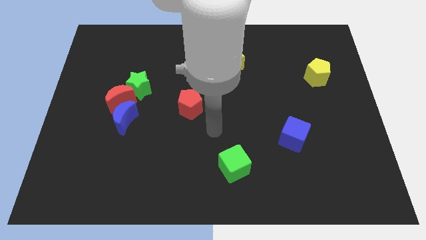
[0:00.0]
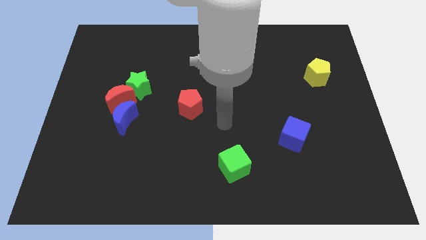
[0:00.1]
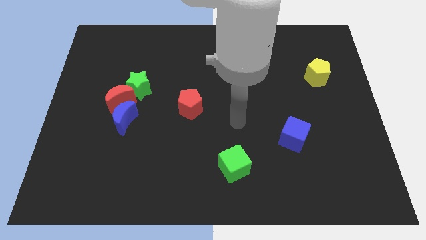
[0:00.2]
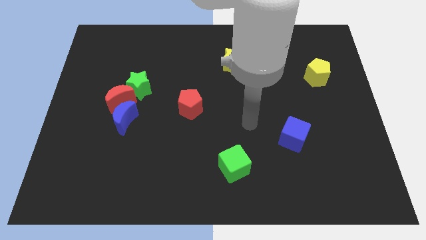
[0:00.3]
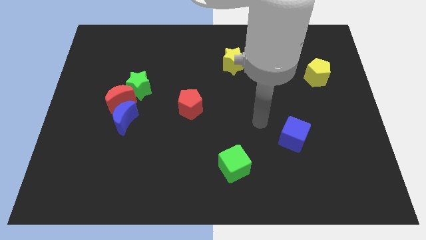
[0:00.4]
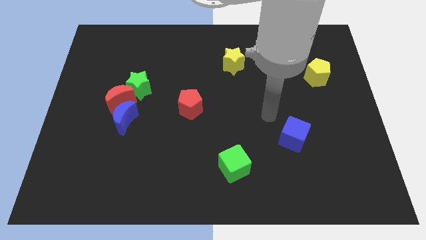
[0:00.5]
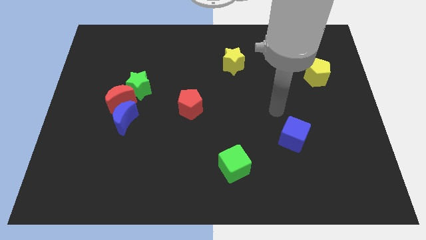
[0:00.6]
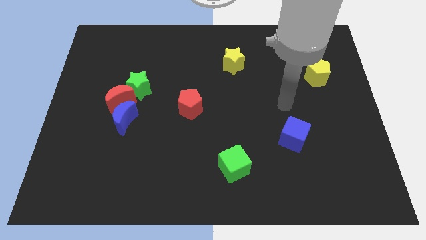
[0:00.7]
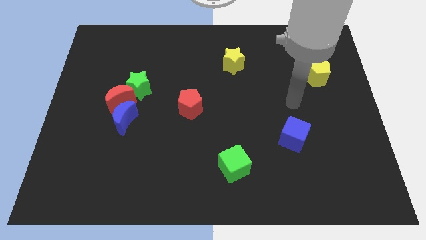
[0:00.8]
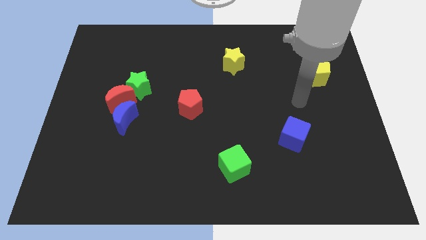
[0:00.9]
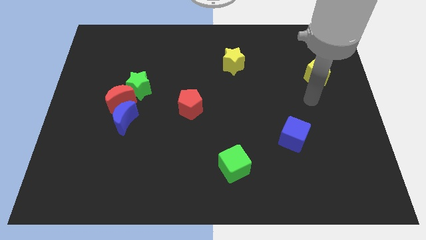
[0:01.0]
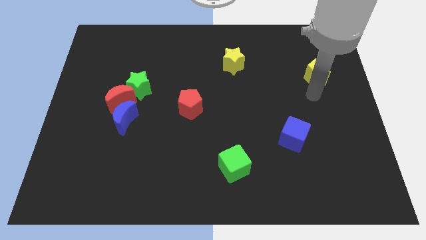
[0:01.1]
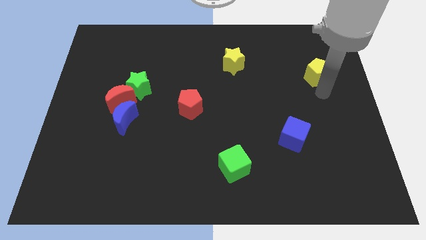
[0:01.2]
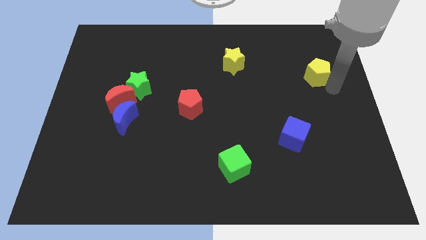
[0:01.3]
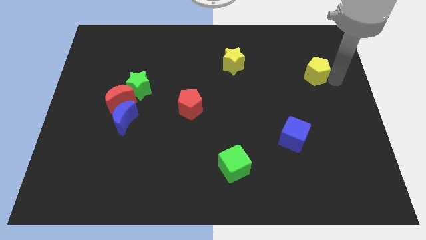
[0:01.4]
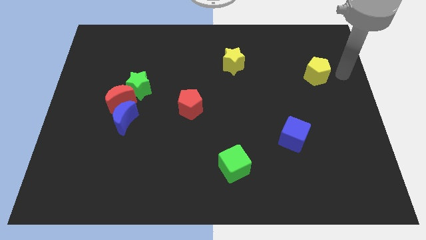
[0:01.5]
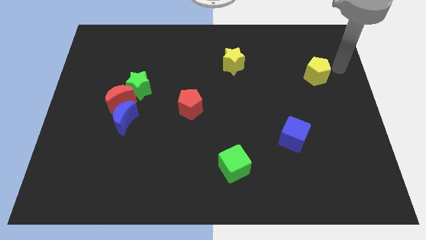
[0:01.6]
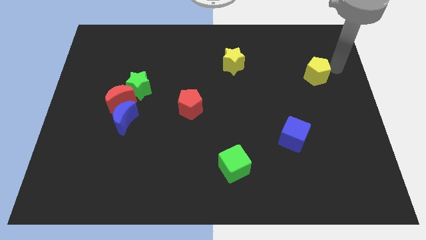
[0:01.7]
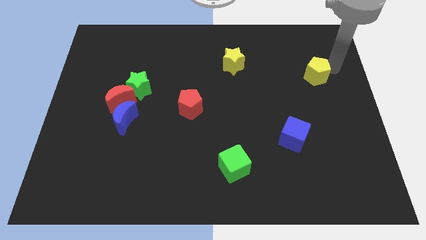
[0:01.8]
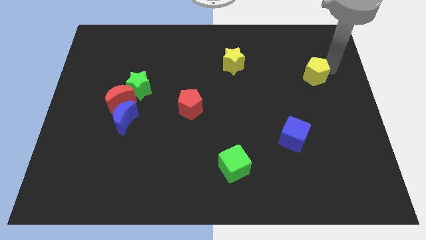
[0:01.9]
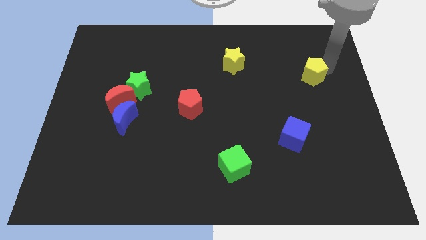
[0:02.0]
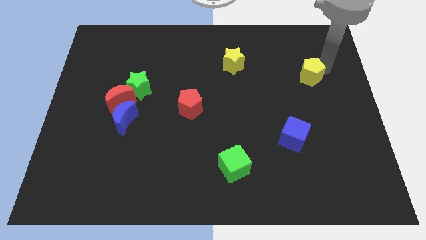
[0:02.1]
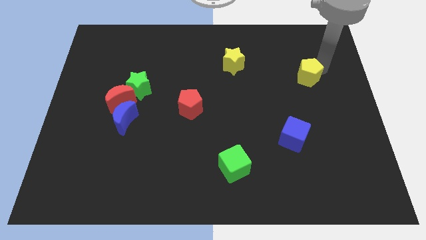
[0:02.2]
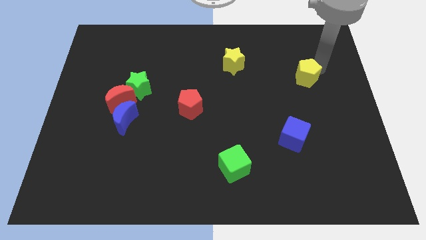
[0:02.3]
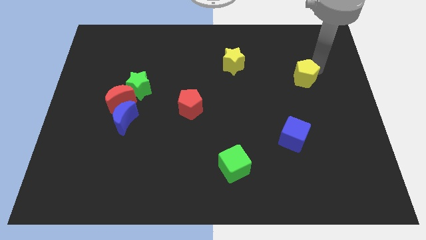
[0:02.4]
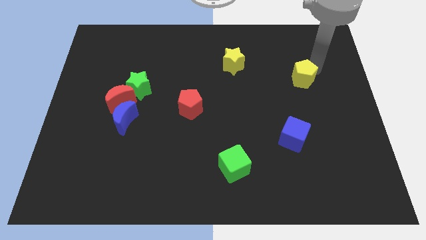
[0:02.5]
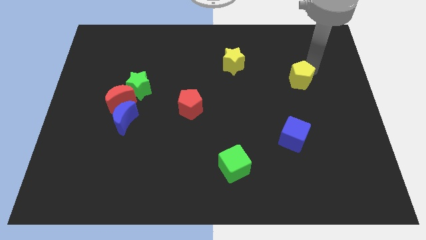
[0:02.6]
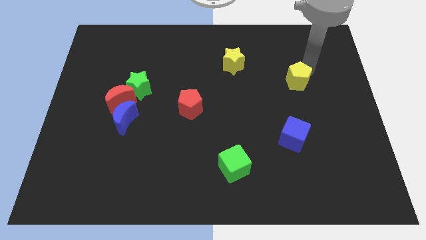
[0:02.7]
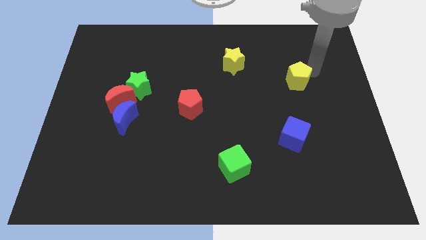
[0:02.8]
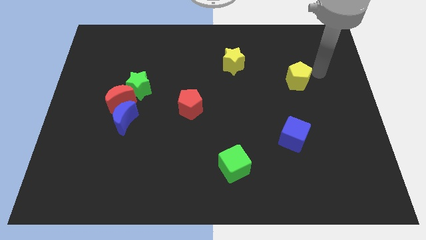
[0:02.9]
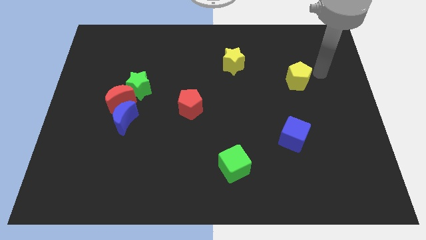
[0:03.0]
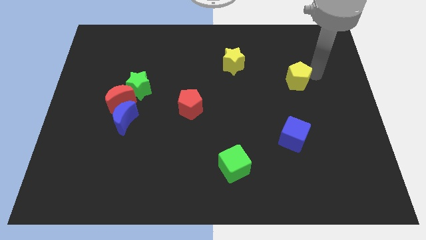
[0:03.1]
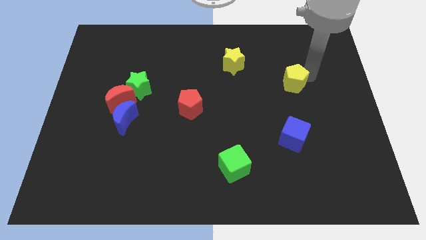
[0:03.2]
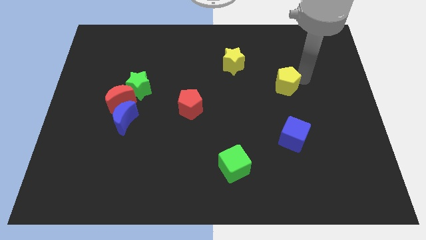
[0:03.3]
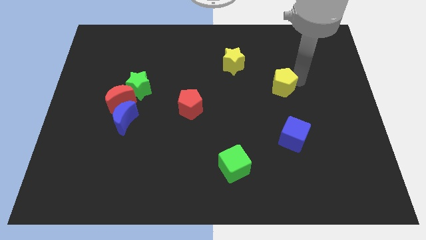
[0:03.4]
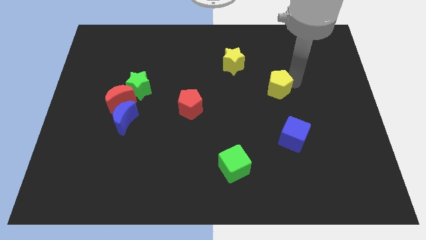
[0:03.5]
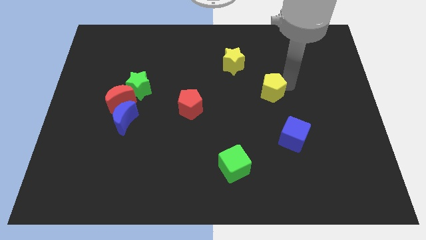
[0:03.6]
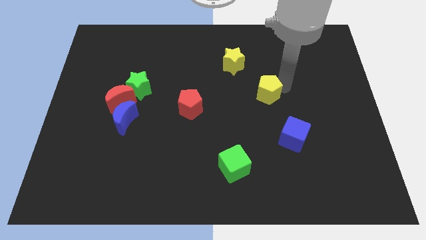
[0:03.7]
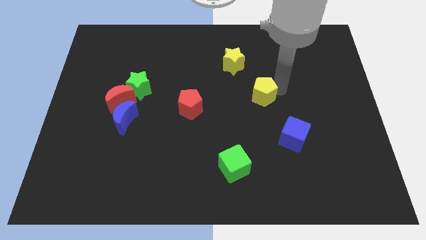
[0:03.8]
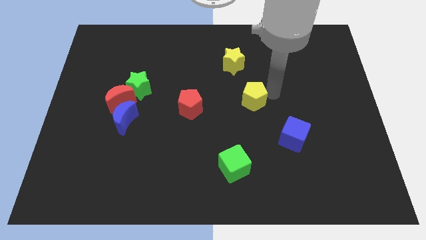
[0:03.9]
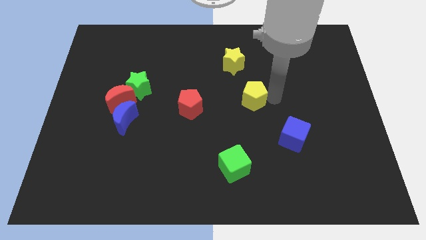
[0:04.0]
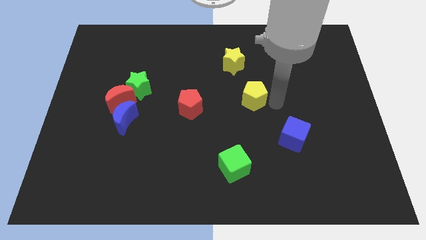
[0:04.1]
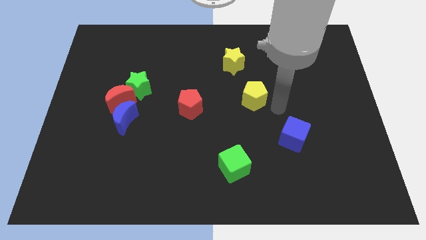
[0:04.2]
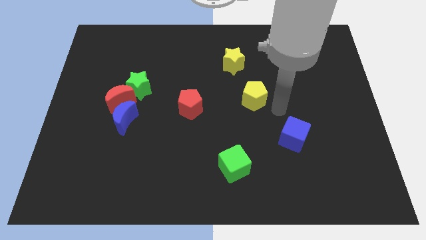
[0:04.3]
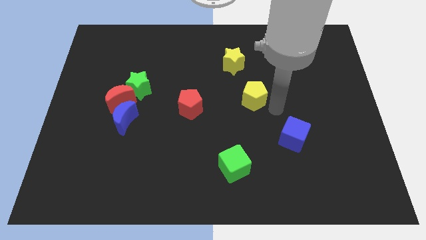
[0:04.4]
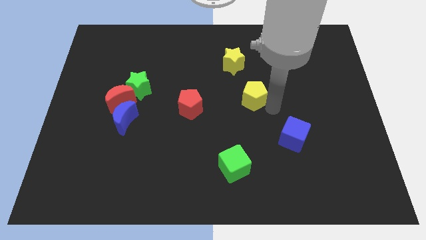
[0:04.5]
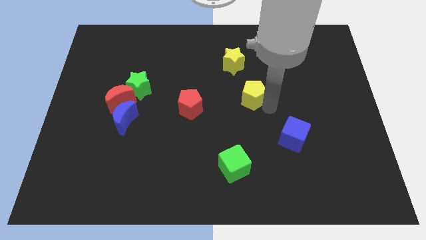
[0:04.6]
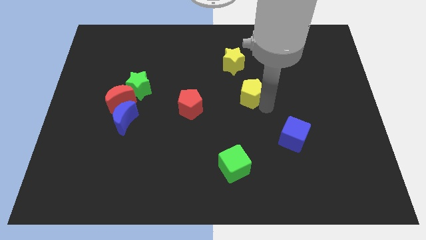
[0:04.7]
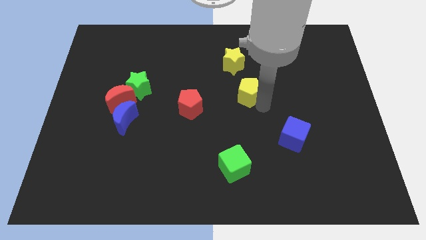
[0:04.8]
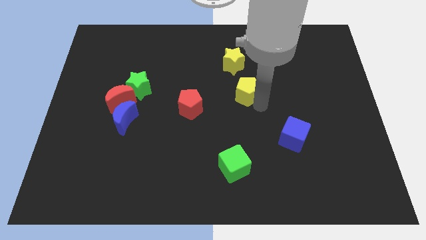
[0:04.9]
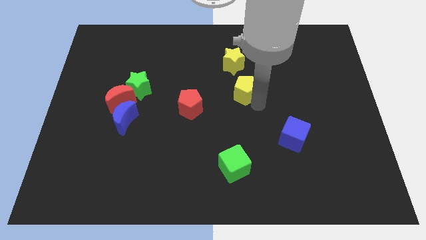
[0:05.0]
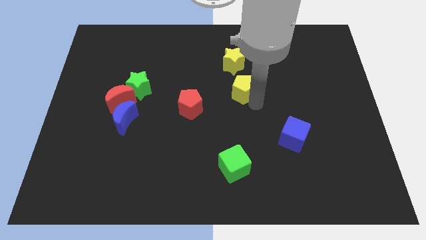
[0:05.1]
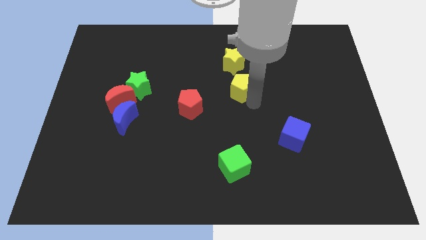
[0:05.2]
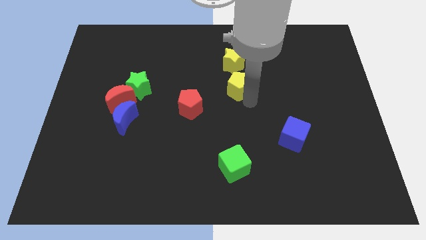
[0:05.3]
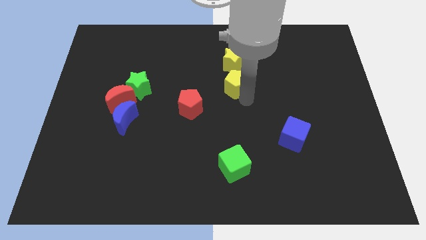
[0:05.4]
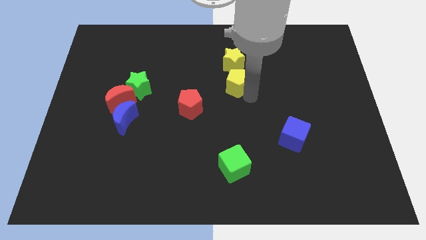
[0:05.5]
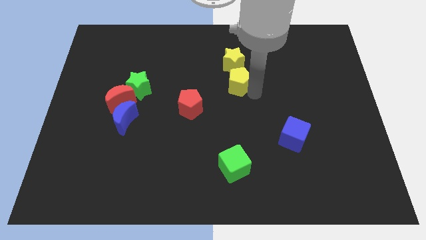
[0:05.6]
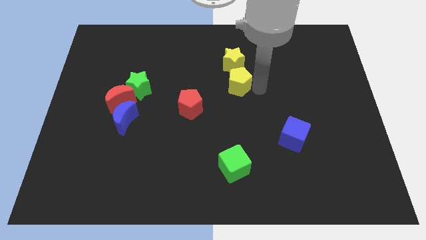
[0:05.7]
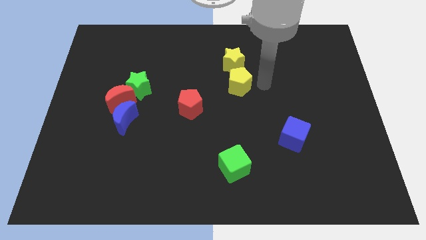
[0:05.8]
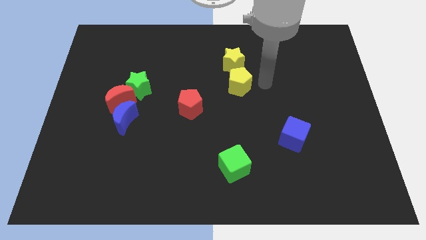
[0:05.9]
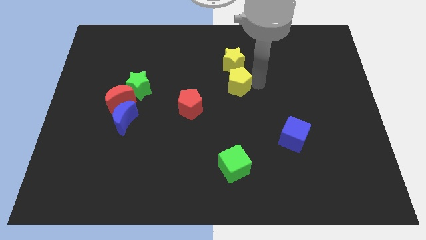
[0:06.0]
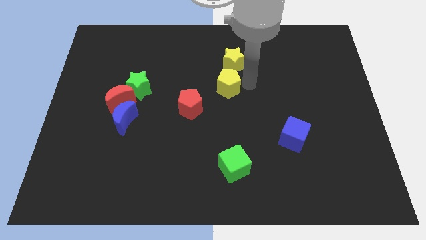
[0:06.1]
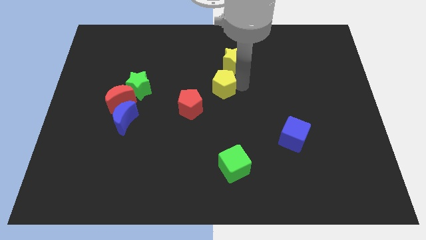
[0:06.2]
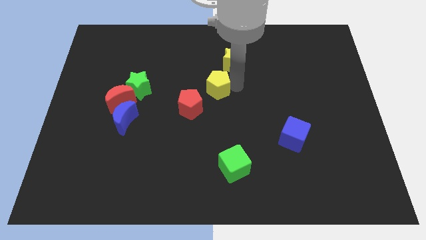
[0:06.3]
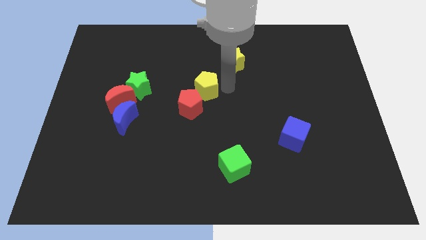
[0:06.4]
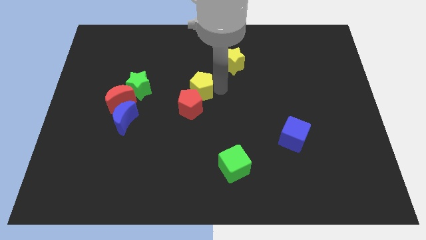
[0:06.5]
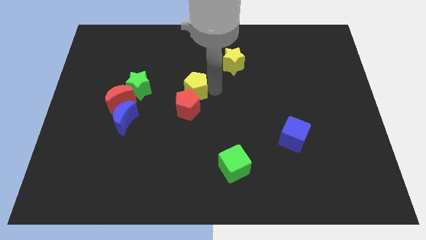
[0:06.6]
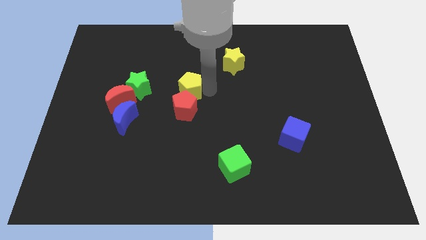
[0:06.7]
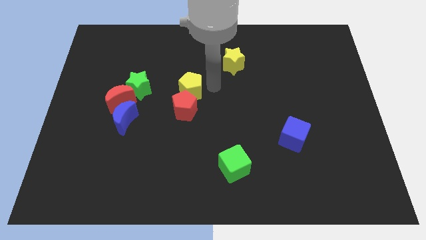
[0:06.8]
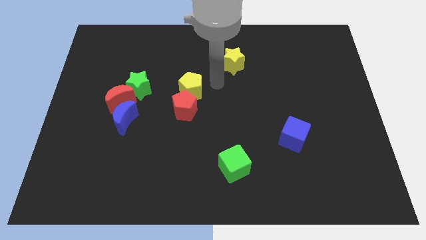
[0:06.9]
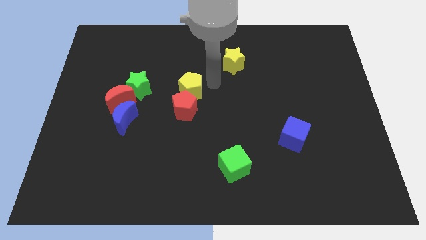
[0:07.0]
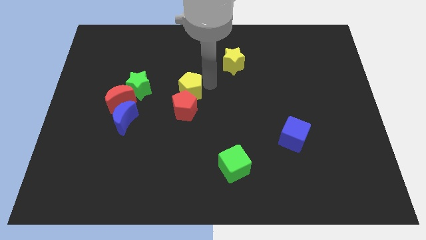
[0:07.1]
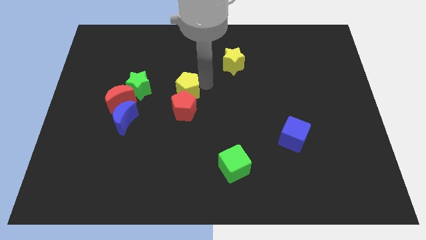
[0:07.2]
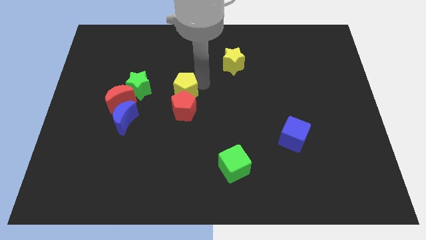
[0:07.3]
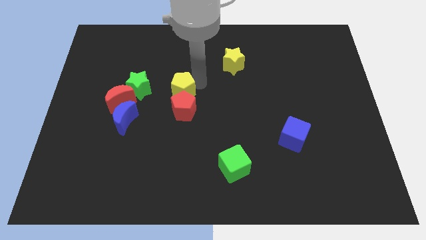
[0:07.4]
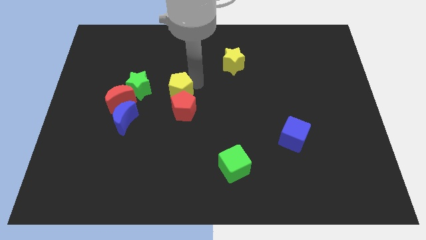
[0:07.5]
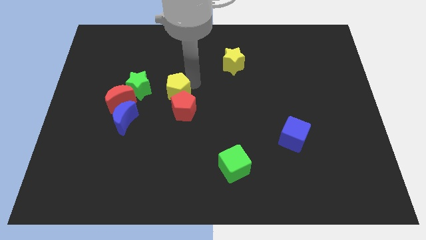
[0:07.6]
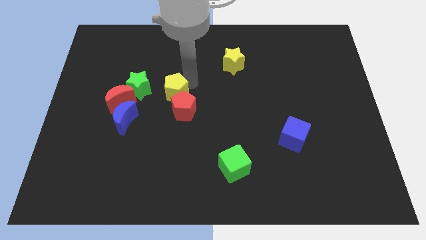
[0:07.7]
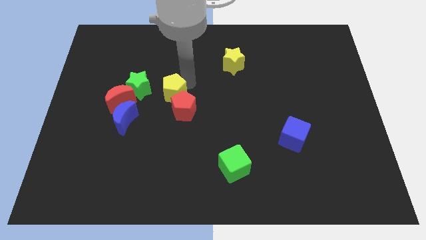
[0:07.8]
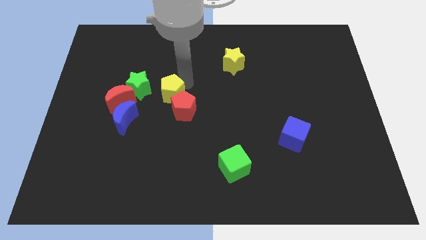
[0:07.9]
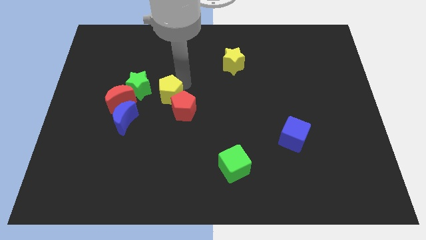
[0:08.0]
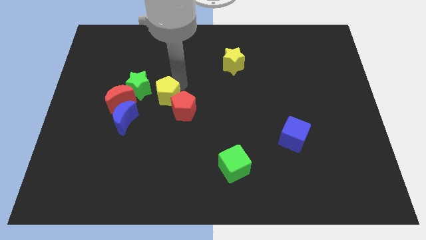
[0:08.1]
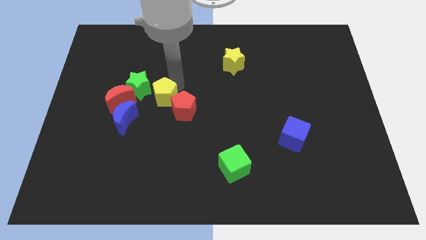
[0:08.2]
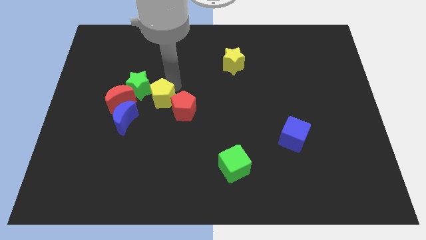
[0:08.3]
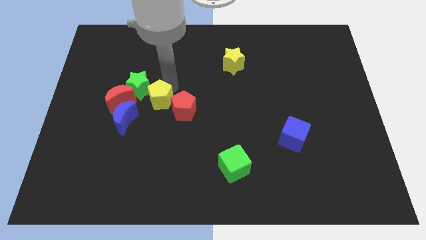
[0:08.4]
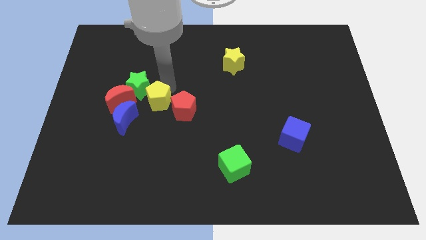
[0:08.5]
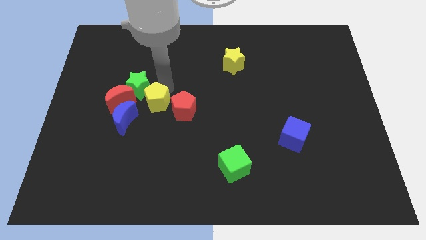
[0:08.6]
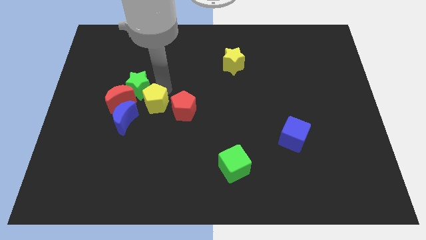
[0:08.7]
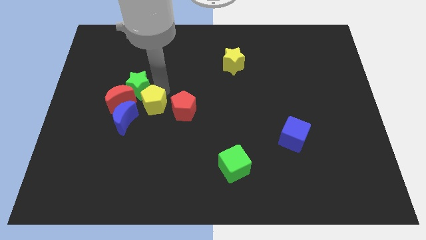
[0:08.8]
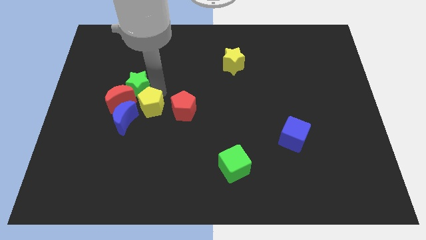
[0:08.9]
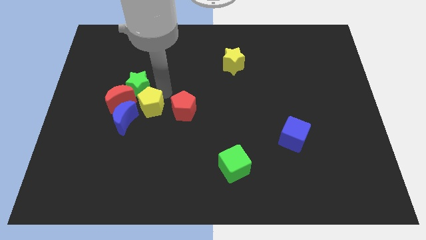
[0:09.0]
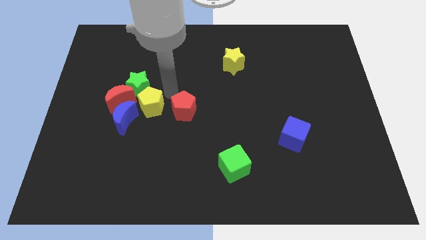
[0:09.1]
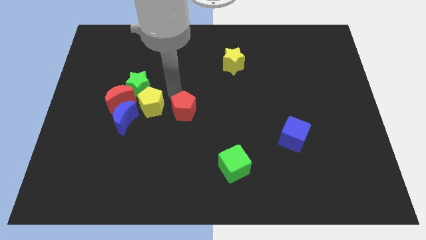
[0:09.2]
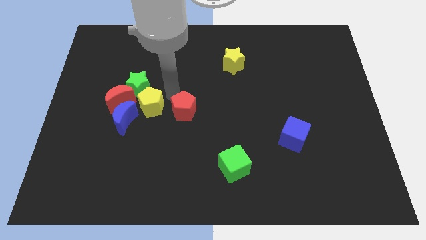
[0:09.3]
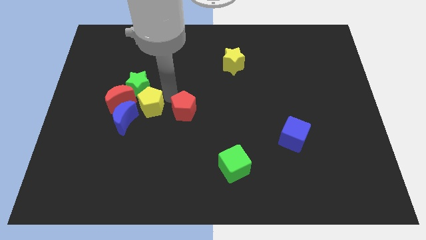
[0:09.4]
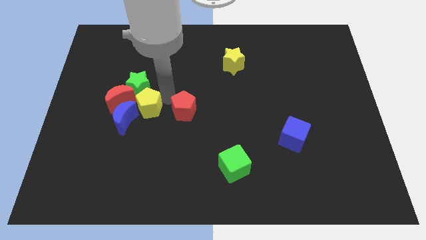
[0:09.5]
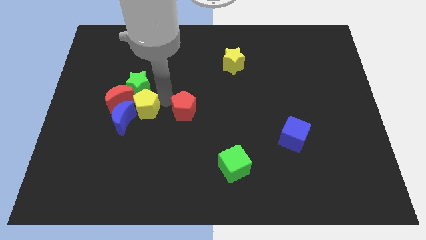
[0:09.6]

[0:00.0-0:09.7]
move the yellow pentagon to the blue moon
